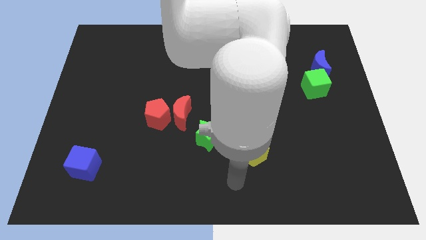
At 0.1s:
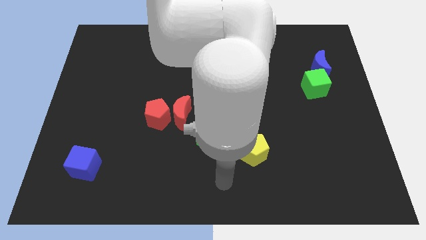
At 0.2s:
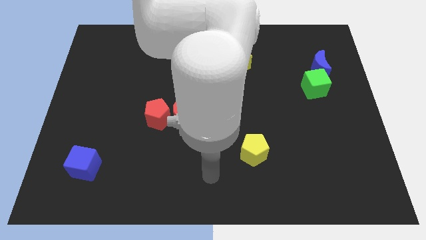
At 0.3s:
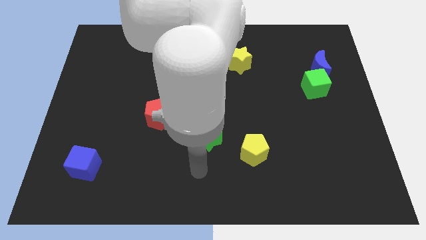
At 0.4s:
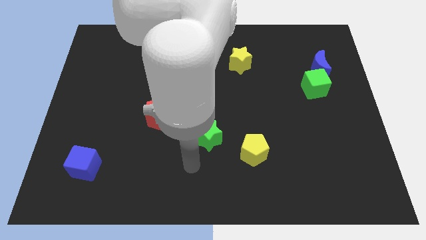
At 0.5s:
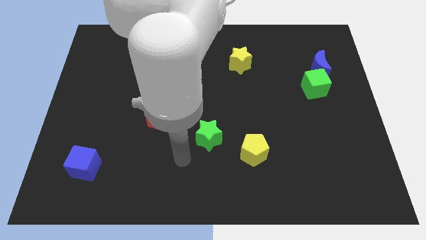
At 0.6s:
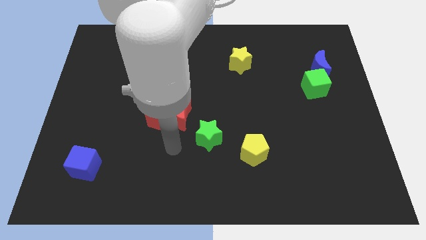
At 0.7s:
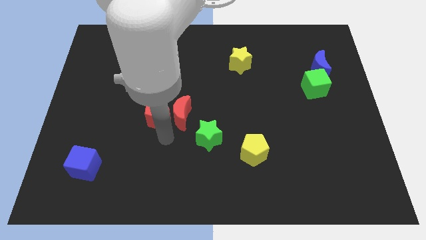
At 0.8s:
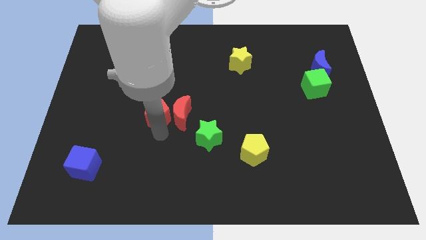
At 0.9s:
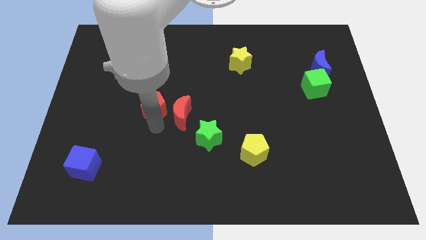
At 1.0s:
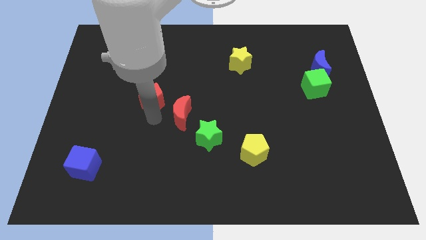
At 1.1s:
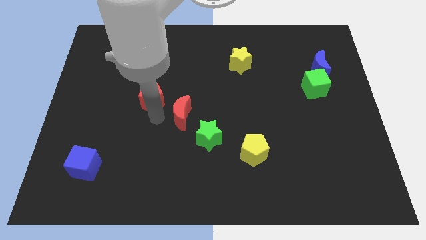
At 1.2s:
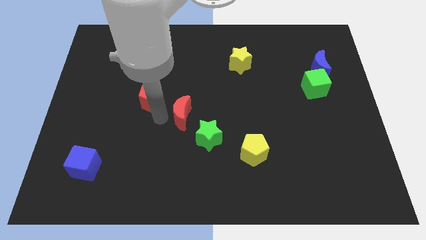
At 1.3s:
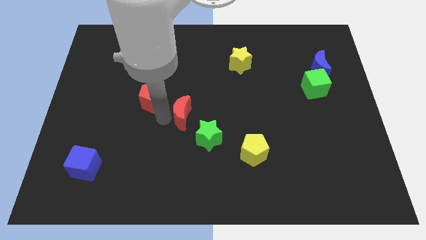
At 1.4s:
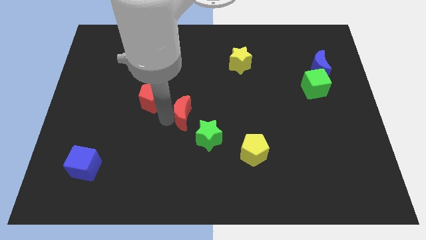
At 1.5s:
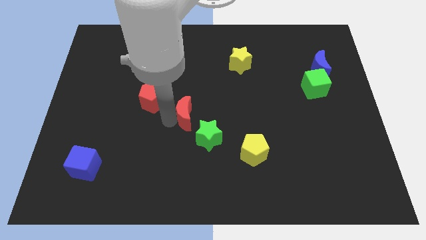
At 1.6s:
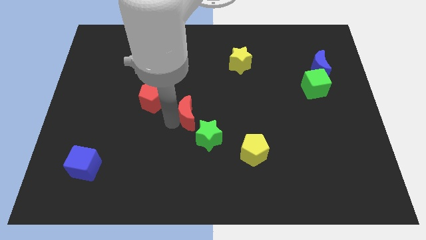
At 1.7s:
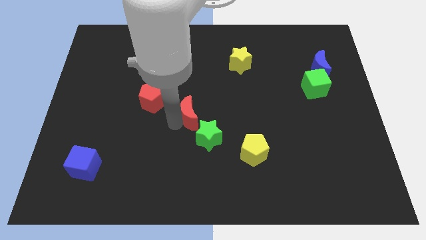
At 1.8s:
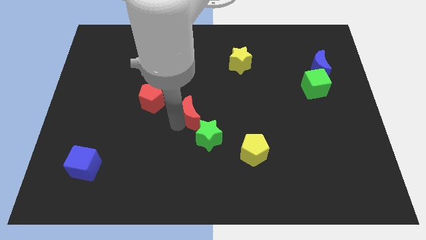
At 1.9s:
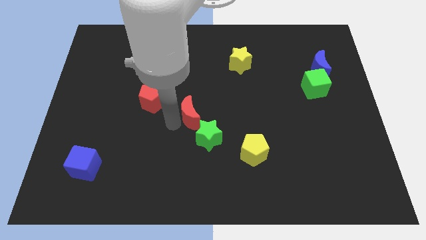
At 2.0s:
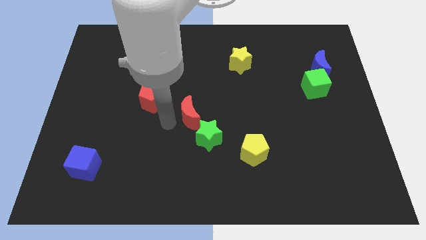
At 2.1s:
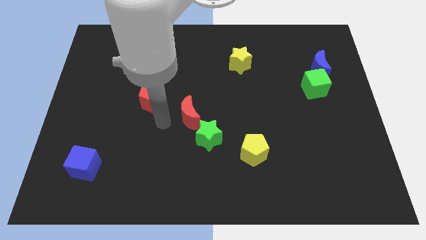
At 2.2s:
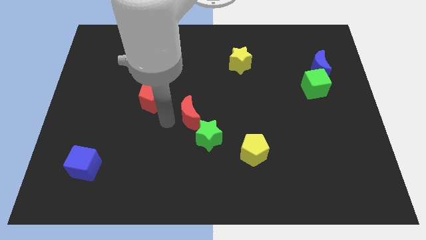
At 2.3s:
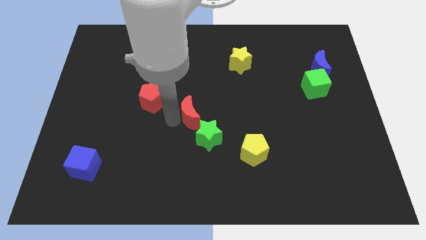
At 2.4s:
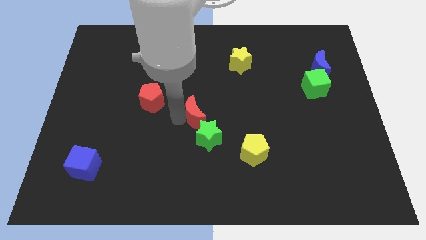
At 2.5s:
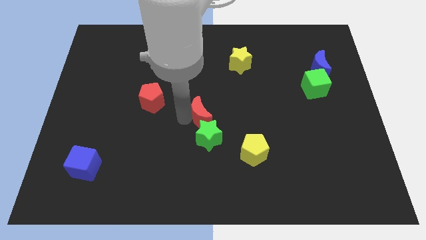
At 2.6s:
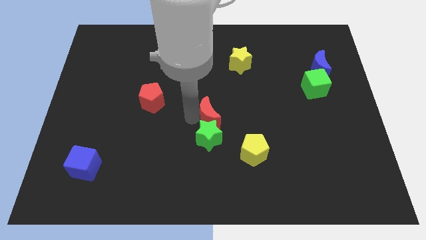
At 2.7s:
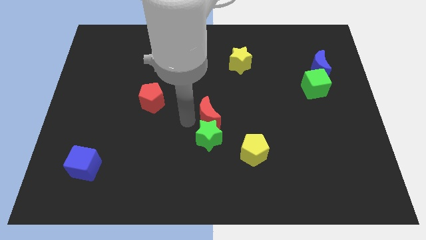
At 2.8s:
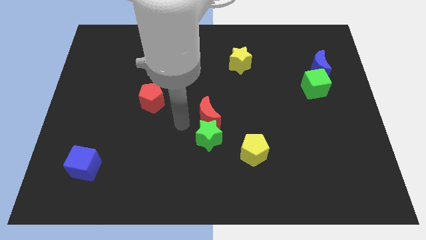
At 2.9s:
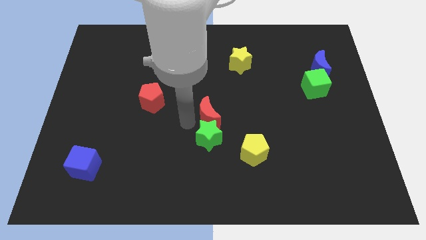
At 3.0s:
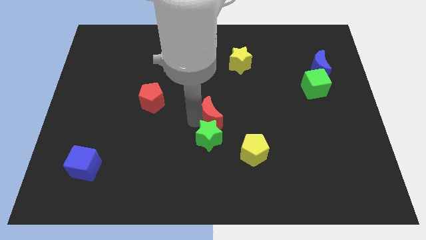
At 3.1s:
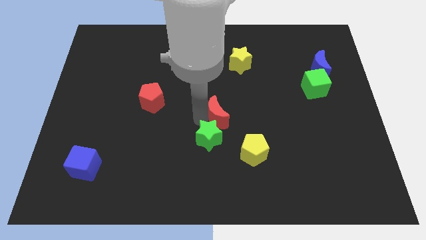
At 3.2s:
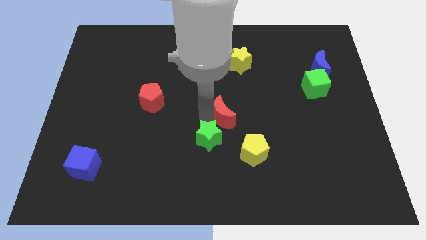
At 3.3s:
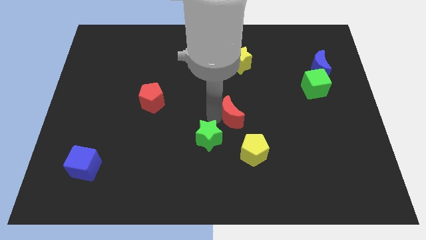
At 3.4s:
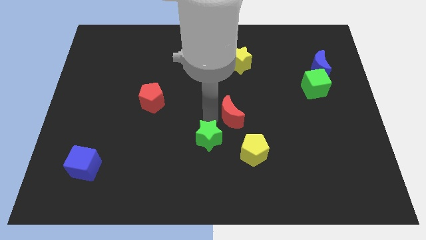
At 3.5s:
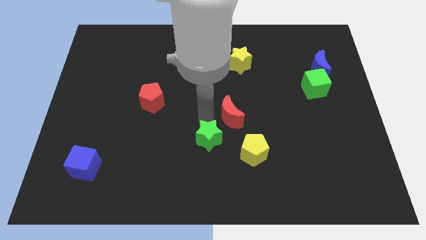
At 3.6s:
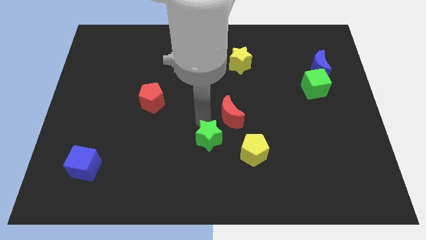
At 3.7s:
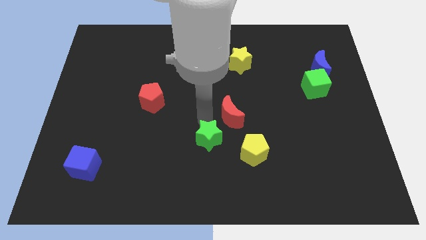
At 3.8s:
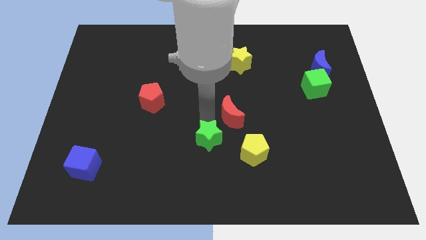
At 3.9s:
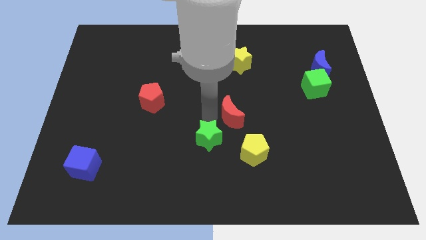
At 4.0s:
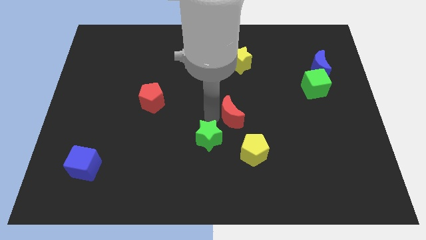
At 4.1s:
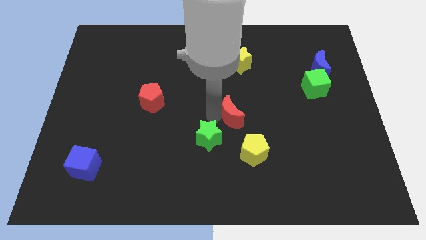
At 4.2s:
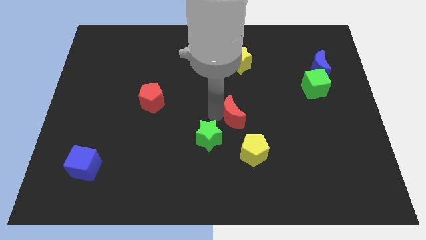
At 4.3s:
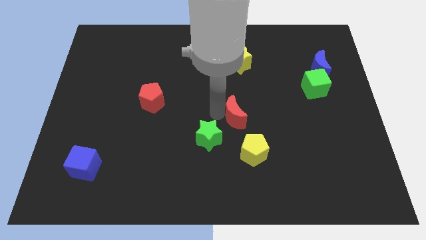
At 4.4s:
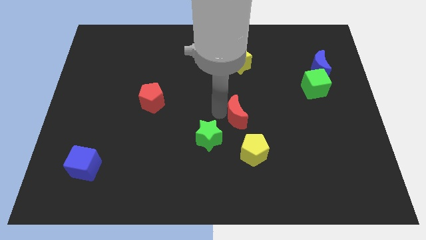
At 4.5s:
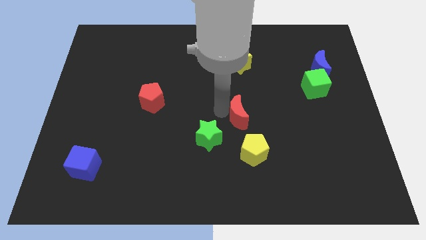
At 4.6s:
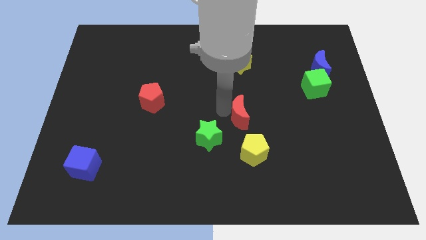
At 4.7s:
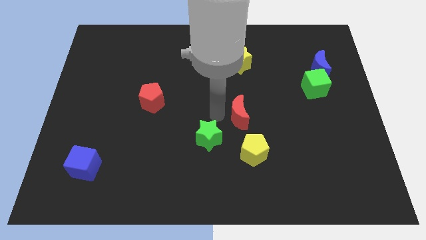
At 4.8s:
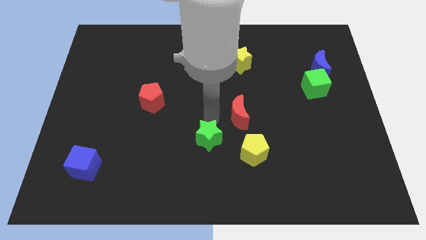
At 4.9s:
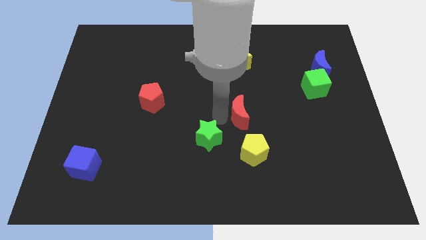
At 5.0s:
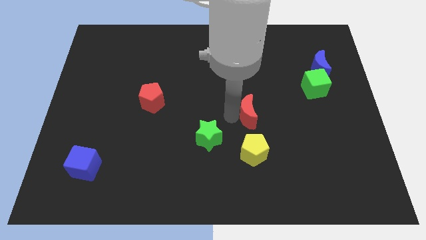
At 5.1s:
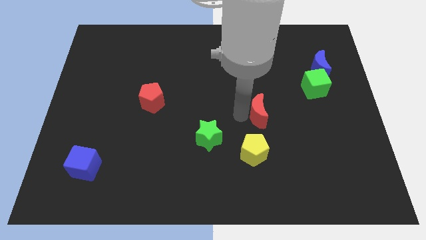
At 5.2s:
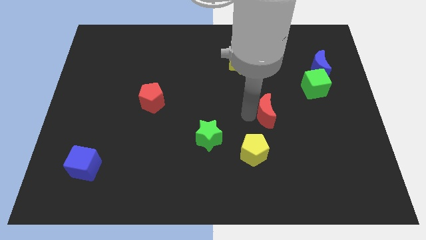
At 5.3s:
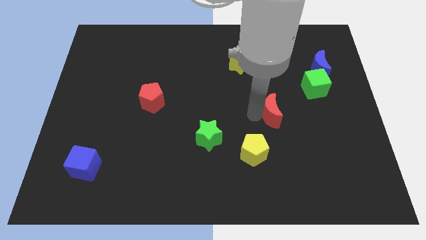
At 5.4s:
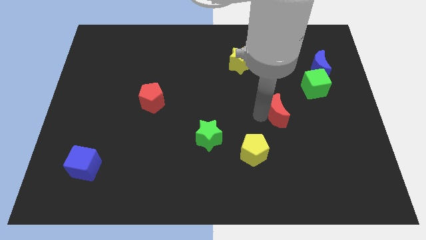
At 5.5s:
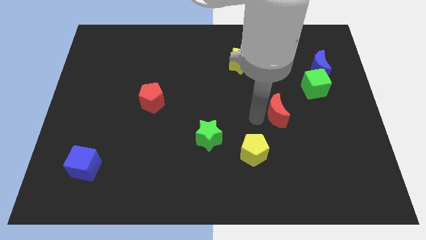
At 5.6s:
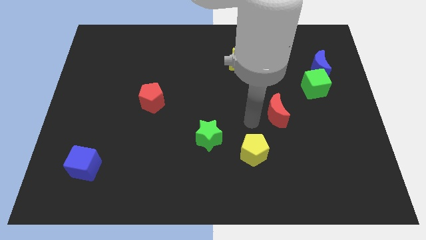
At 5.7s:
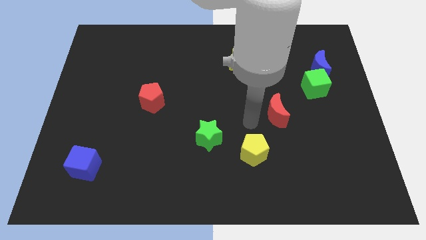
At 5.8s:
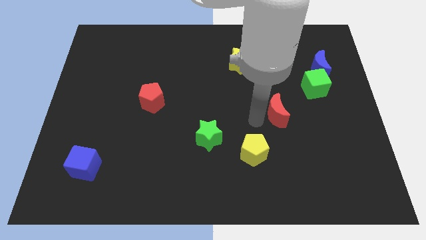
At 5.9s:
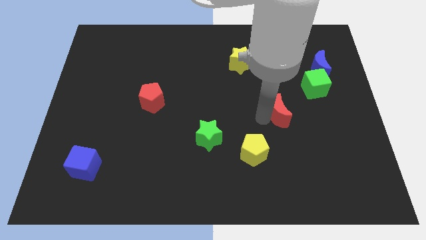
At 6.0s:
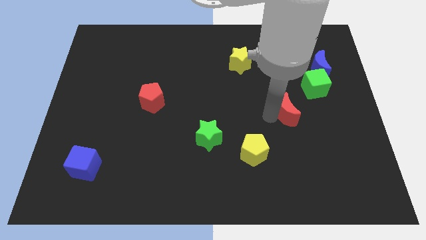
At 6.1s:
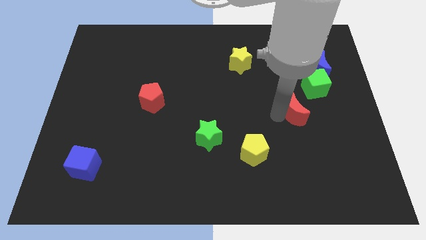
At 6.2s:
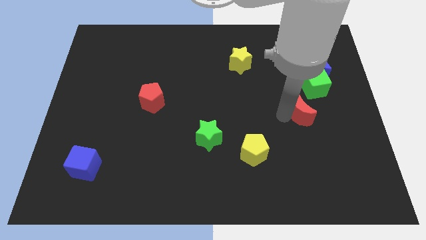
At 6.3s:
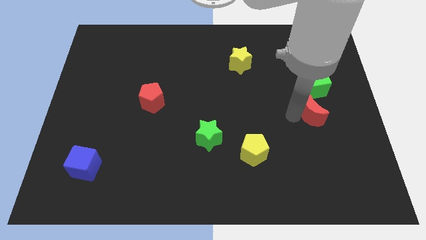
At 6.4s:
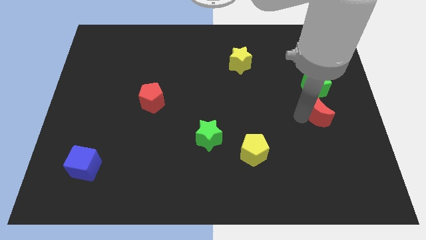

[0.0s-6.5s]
put the red moon to the bottom side of the blue moon
